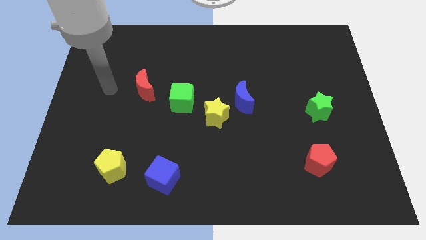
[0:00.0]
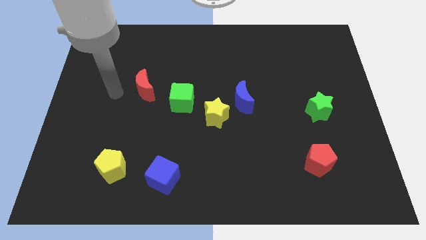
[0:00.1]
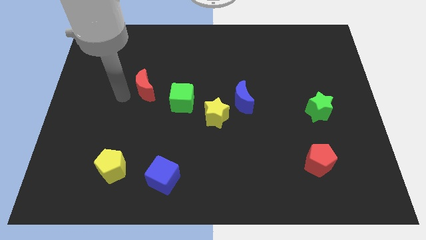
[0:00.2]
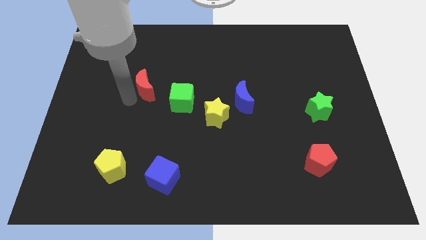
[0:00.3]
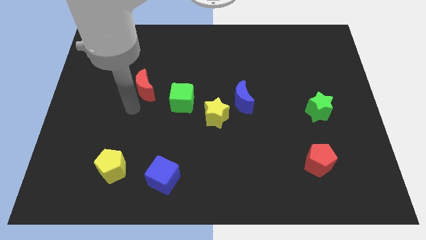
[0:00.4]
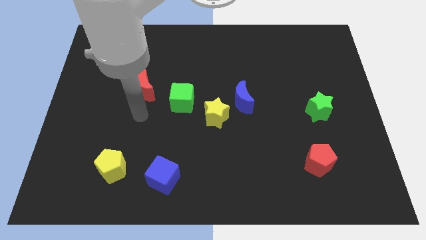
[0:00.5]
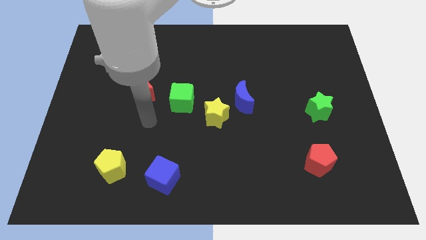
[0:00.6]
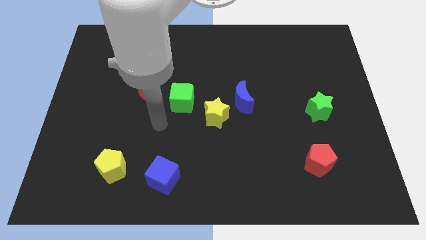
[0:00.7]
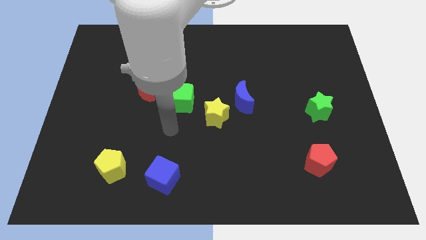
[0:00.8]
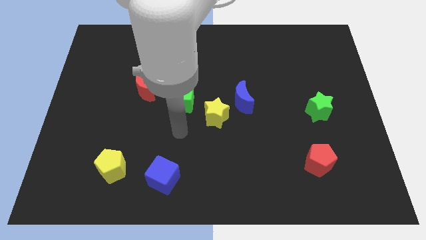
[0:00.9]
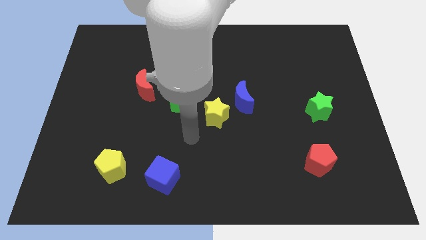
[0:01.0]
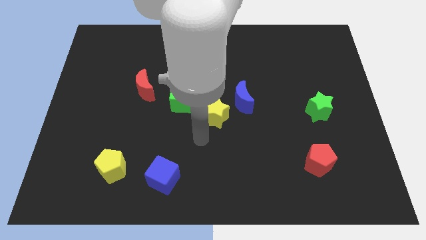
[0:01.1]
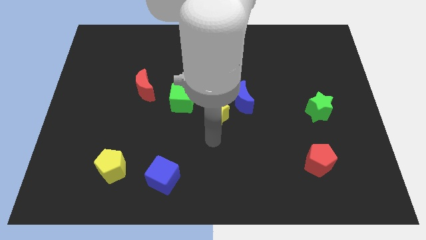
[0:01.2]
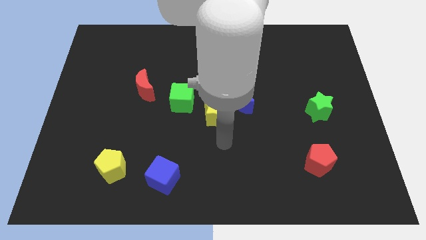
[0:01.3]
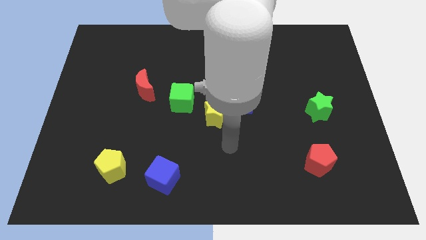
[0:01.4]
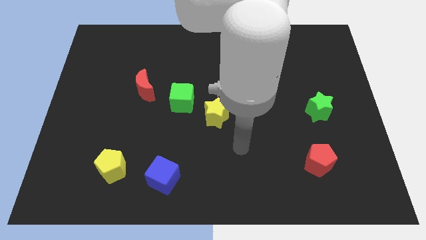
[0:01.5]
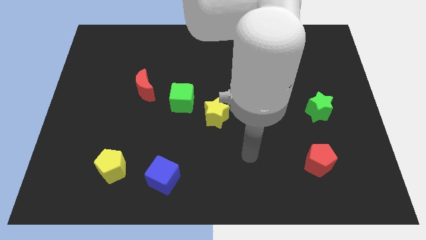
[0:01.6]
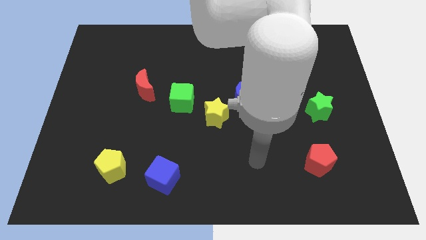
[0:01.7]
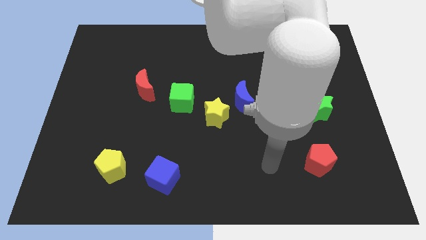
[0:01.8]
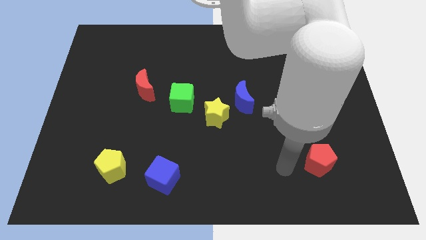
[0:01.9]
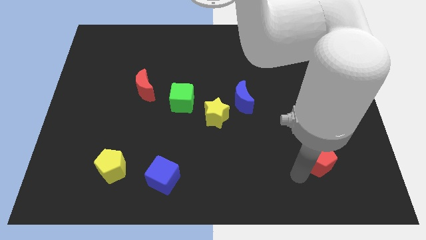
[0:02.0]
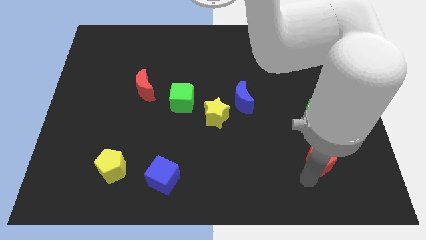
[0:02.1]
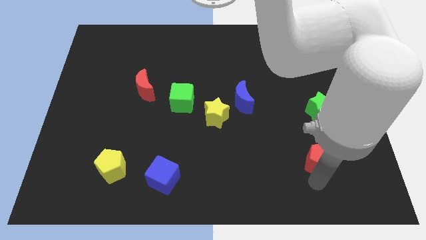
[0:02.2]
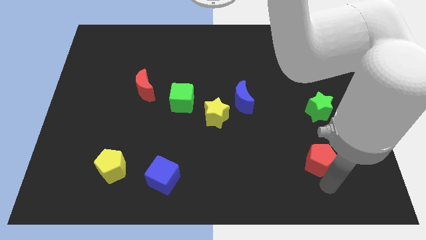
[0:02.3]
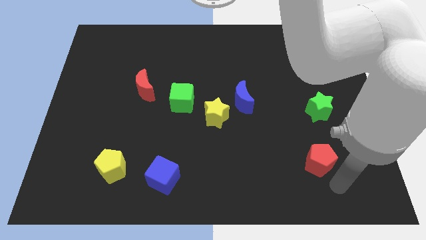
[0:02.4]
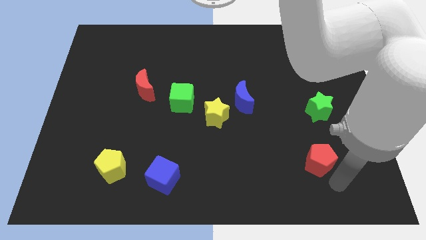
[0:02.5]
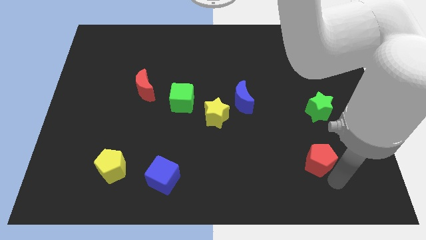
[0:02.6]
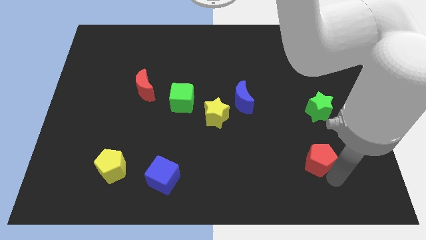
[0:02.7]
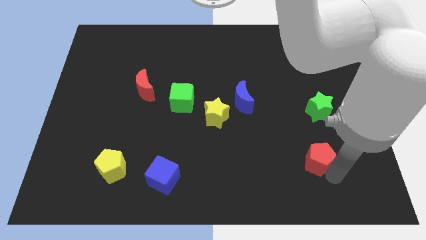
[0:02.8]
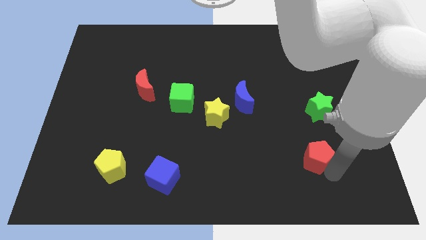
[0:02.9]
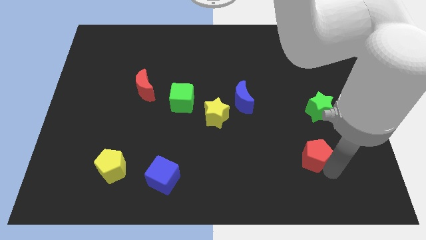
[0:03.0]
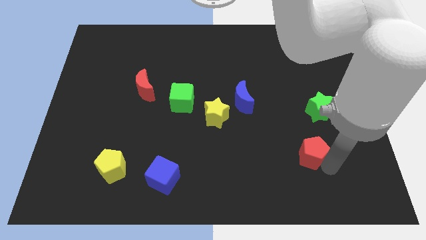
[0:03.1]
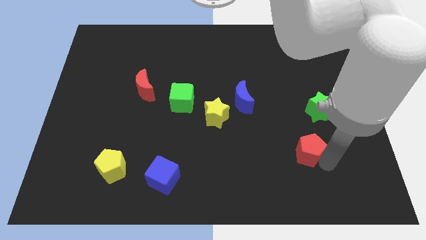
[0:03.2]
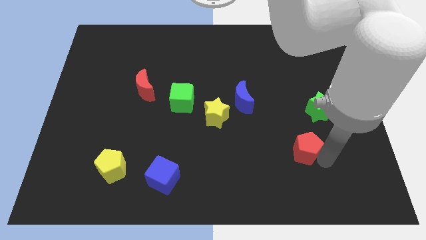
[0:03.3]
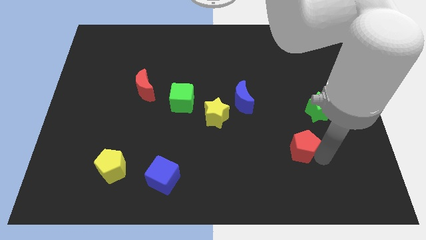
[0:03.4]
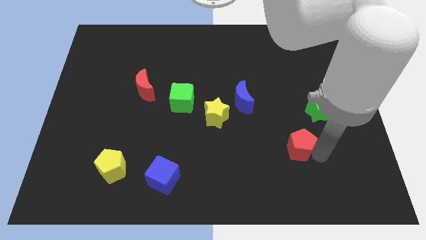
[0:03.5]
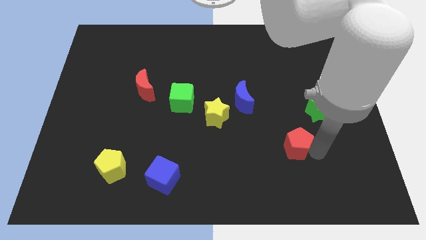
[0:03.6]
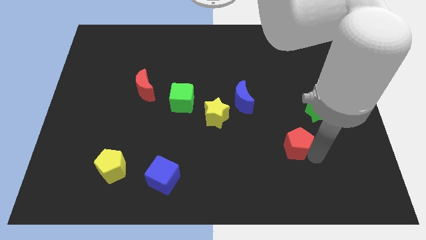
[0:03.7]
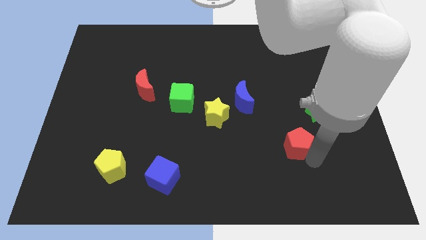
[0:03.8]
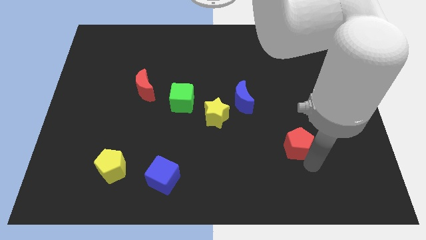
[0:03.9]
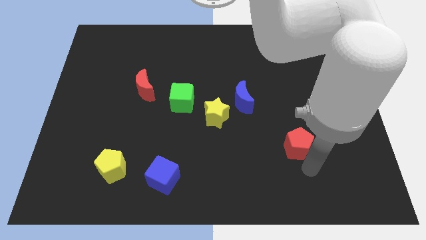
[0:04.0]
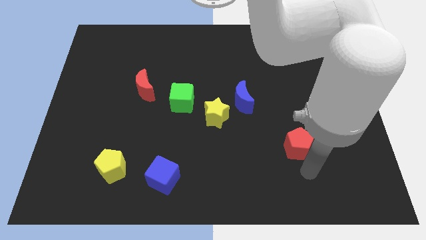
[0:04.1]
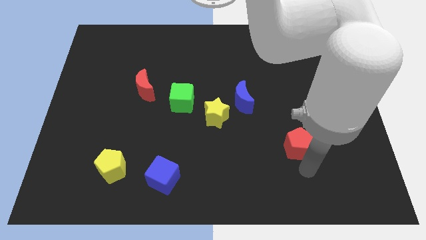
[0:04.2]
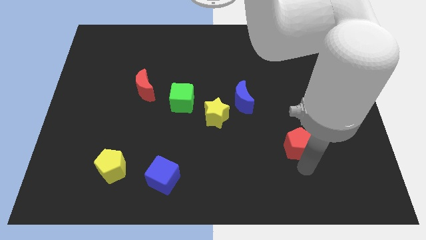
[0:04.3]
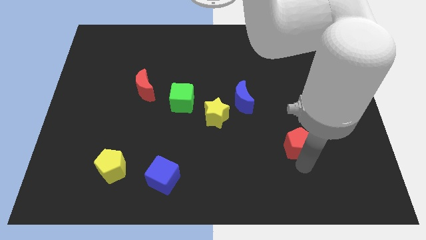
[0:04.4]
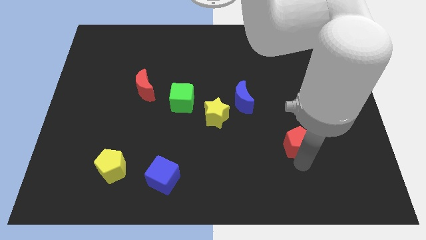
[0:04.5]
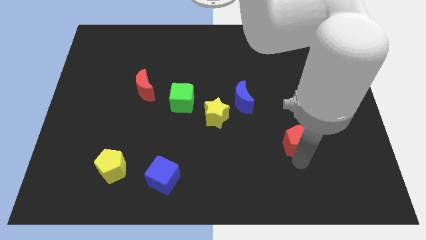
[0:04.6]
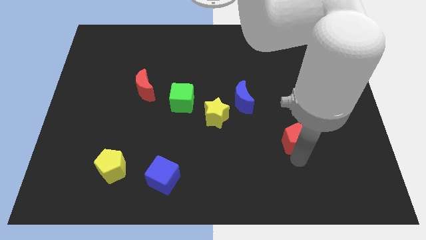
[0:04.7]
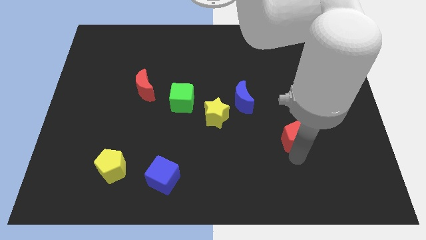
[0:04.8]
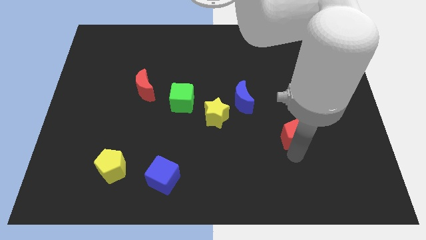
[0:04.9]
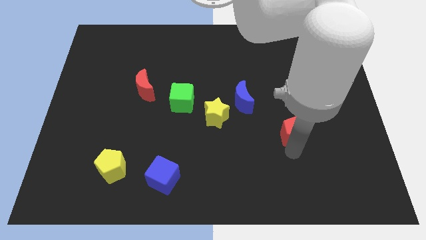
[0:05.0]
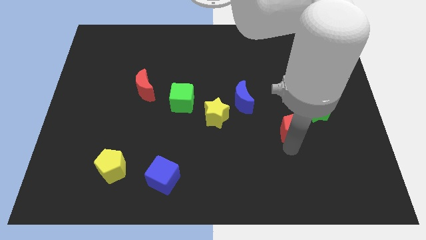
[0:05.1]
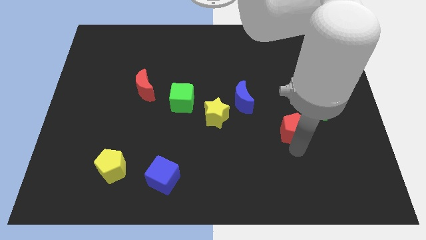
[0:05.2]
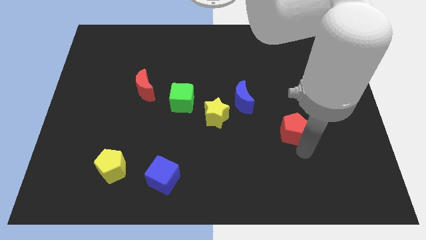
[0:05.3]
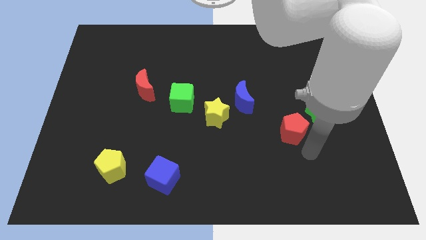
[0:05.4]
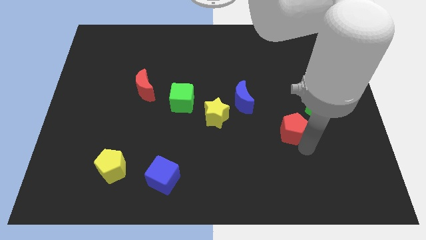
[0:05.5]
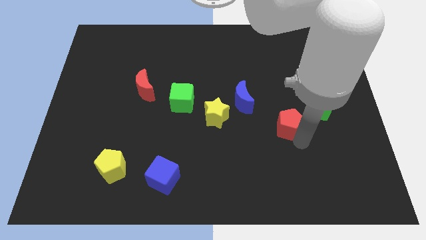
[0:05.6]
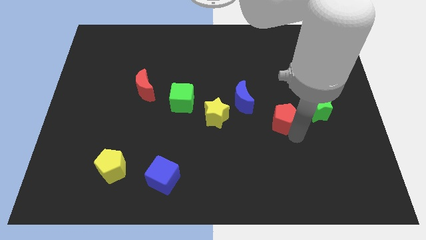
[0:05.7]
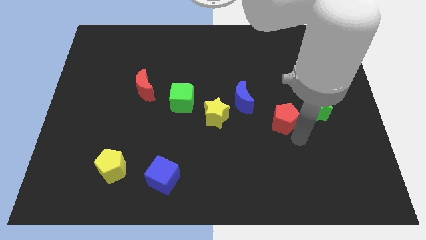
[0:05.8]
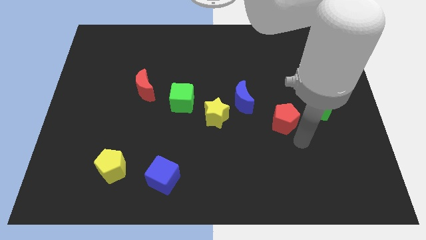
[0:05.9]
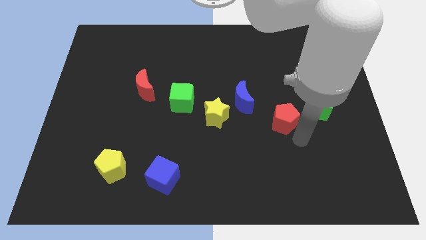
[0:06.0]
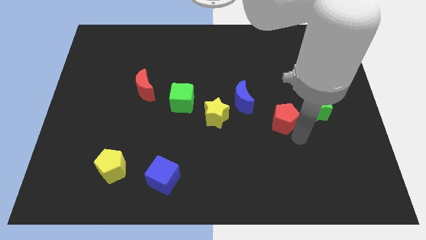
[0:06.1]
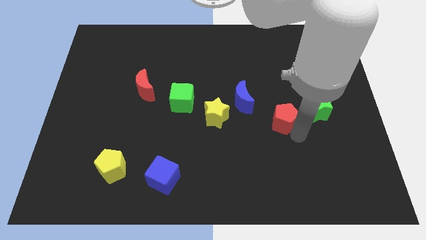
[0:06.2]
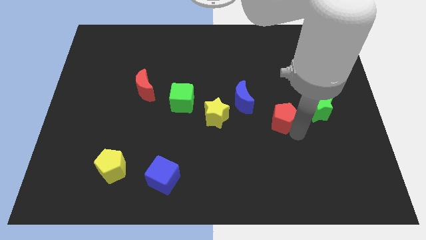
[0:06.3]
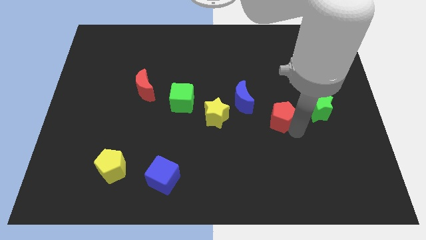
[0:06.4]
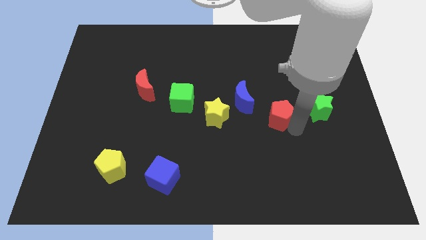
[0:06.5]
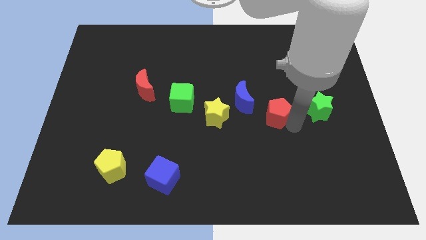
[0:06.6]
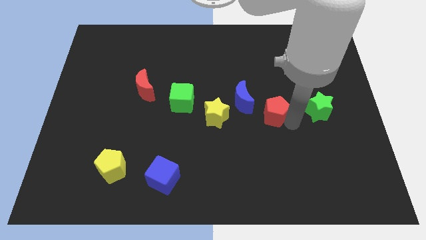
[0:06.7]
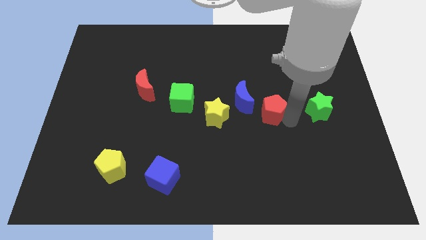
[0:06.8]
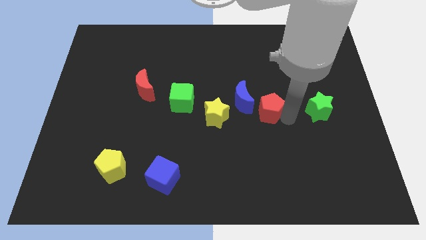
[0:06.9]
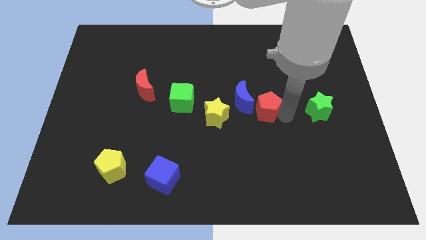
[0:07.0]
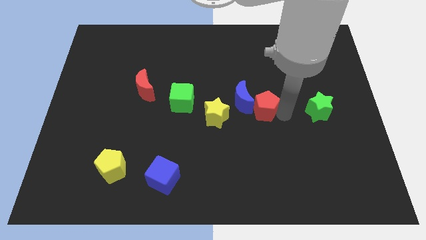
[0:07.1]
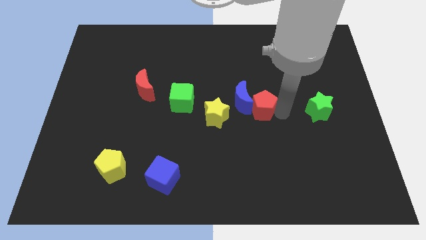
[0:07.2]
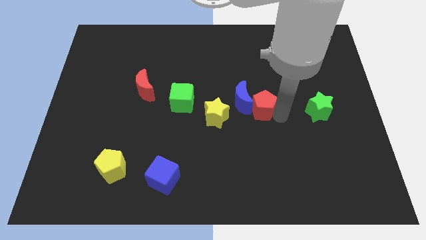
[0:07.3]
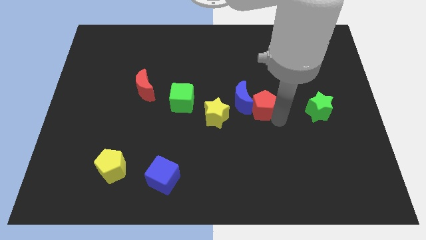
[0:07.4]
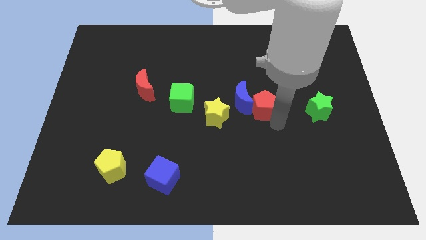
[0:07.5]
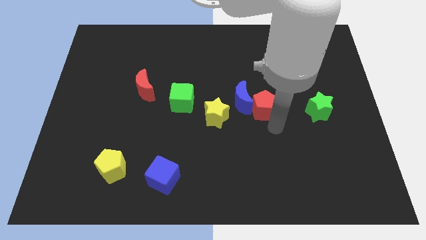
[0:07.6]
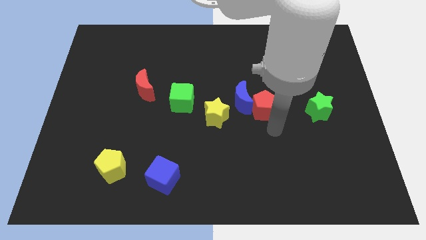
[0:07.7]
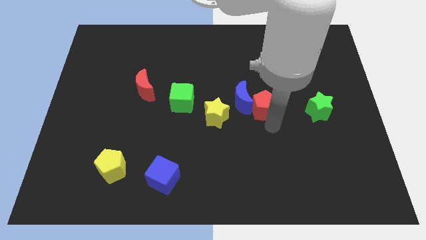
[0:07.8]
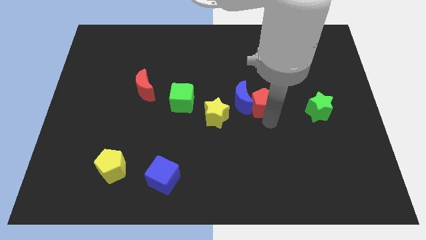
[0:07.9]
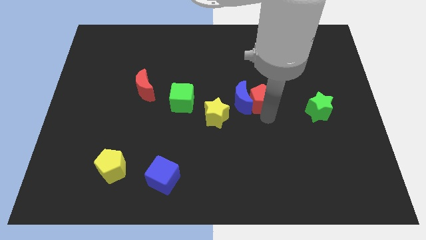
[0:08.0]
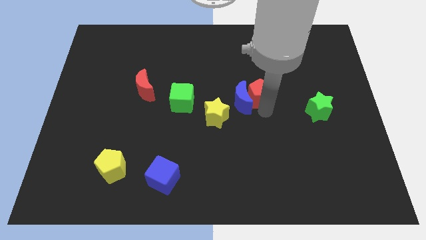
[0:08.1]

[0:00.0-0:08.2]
slide the red pentagon upwards and left
